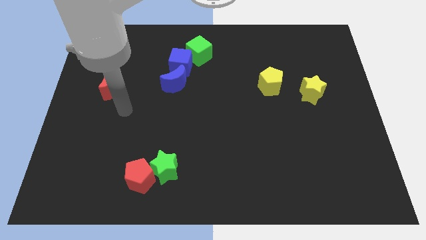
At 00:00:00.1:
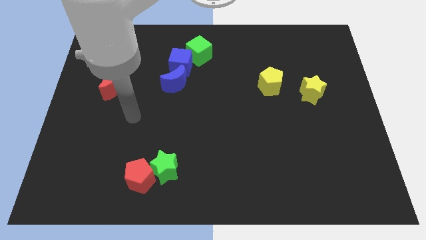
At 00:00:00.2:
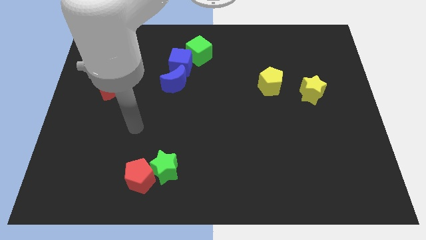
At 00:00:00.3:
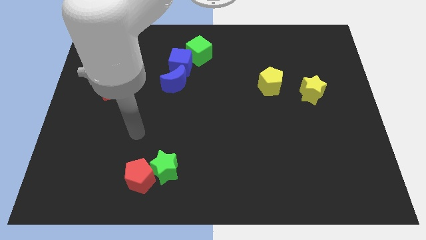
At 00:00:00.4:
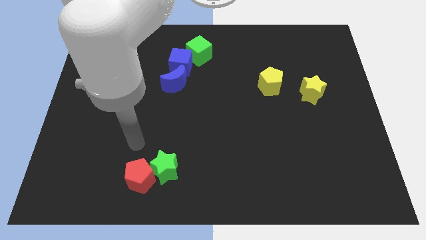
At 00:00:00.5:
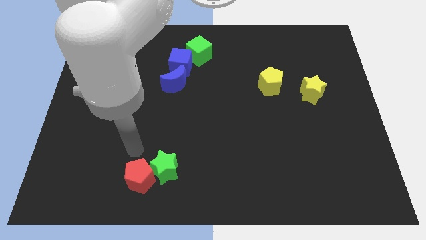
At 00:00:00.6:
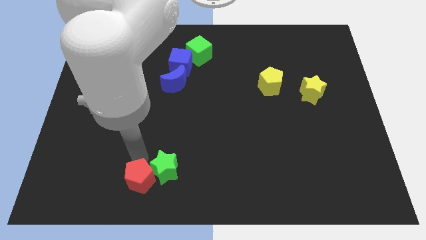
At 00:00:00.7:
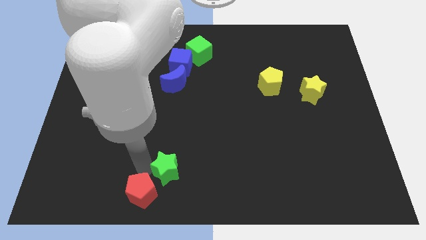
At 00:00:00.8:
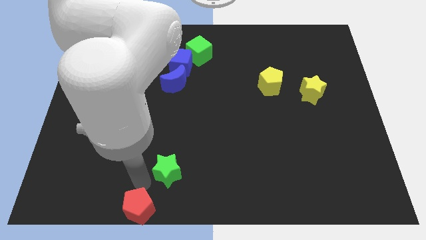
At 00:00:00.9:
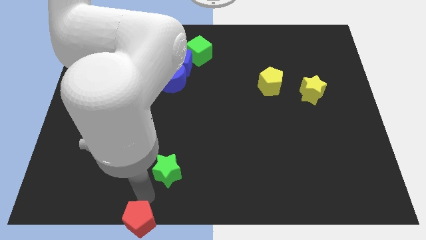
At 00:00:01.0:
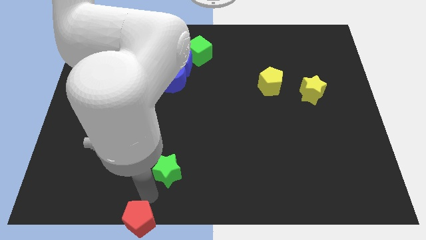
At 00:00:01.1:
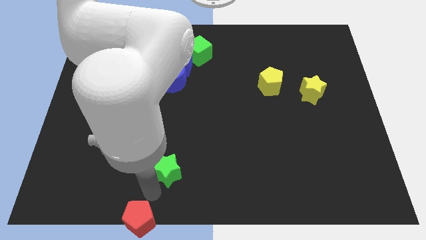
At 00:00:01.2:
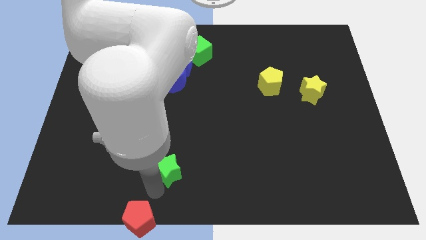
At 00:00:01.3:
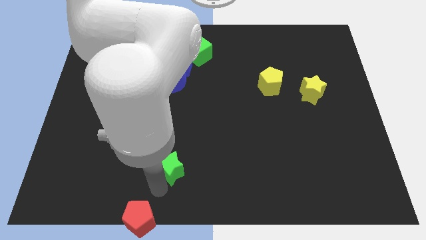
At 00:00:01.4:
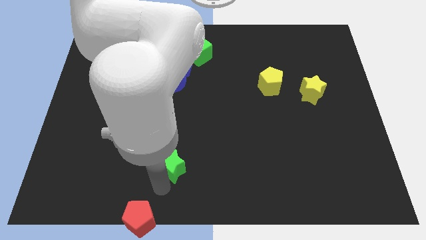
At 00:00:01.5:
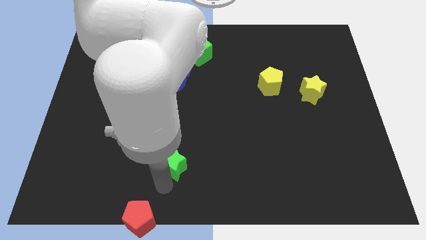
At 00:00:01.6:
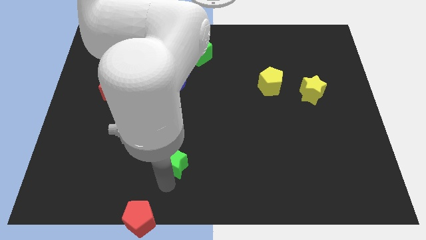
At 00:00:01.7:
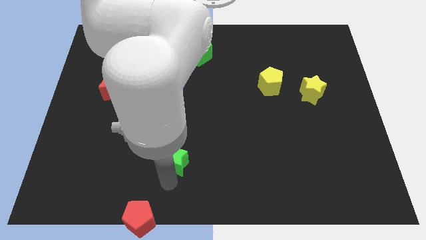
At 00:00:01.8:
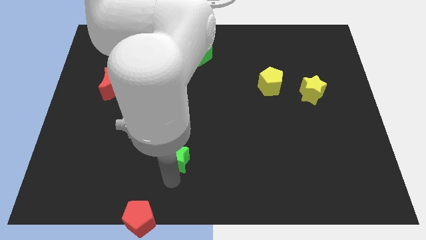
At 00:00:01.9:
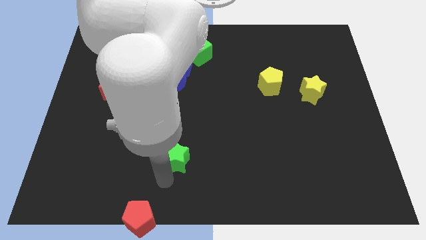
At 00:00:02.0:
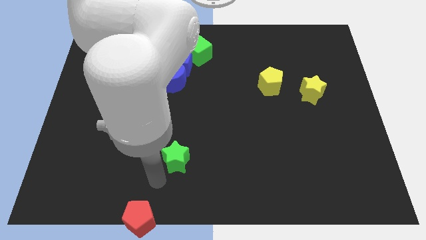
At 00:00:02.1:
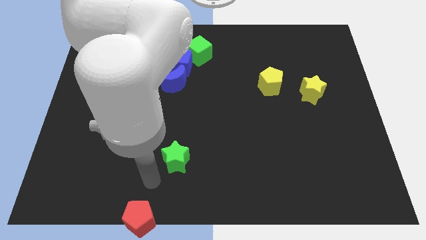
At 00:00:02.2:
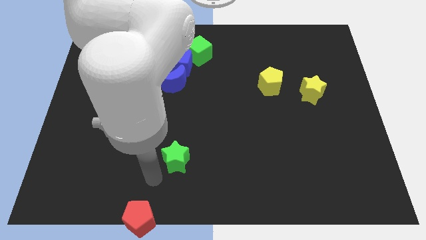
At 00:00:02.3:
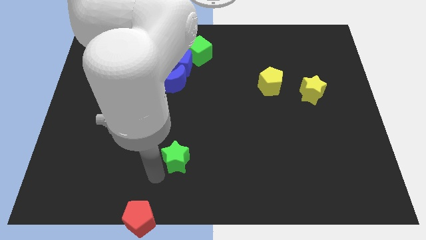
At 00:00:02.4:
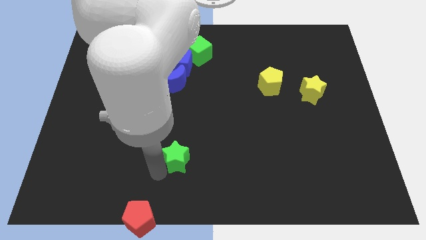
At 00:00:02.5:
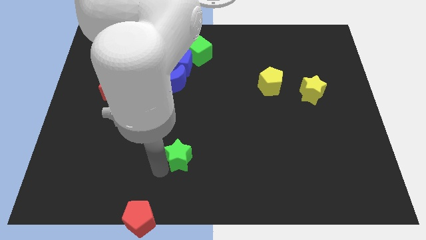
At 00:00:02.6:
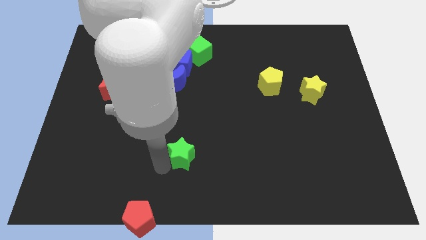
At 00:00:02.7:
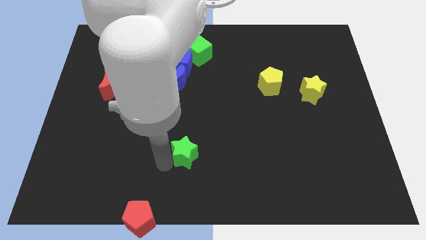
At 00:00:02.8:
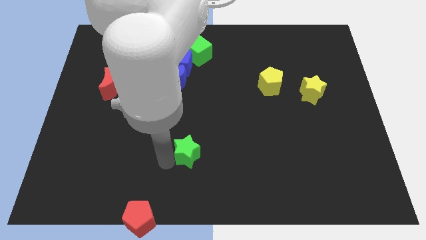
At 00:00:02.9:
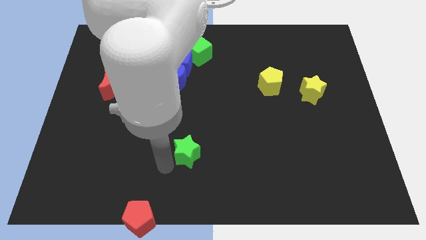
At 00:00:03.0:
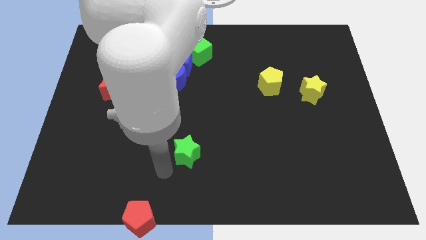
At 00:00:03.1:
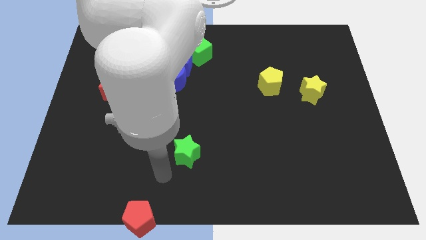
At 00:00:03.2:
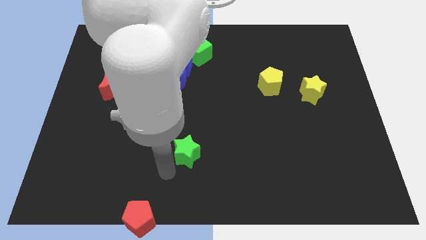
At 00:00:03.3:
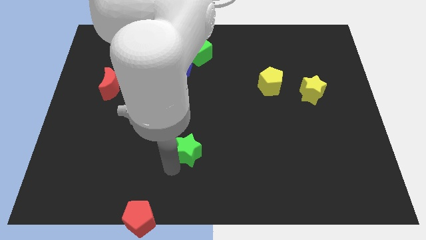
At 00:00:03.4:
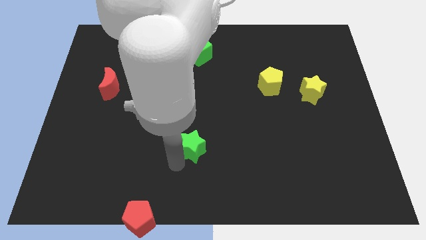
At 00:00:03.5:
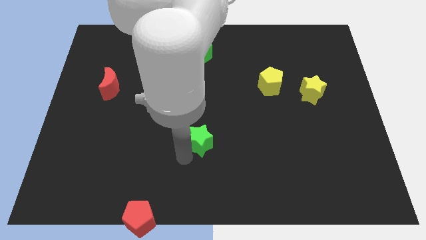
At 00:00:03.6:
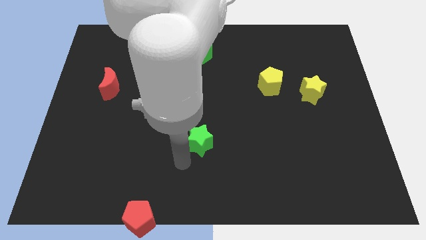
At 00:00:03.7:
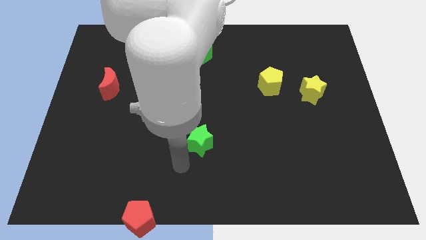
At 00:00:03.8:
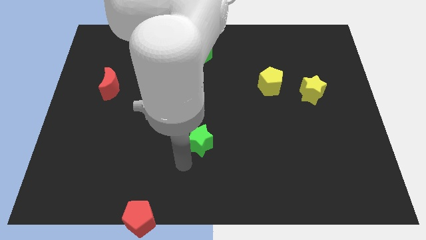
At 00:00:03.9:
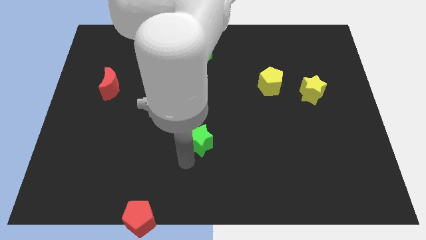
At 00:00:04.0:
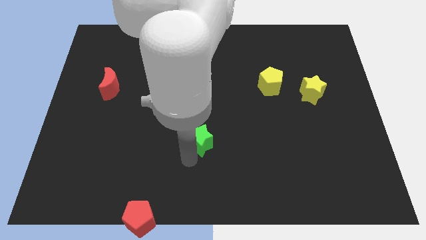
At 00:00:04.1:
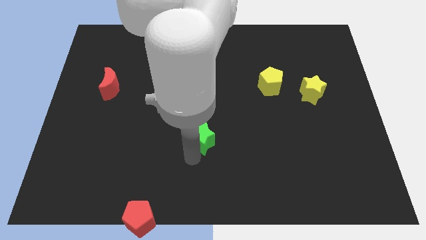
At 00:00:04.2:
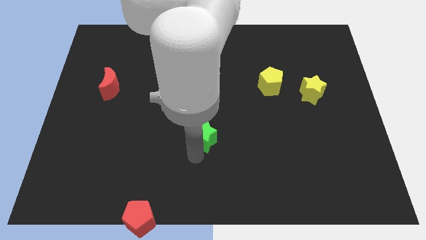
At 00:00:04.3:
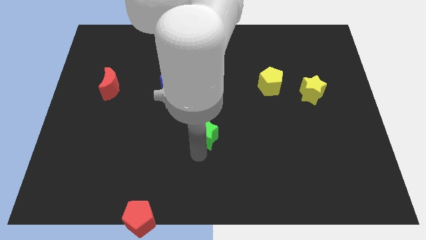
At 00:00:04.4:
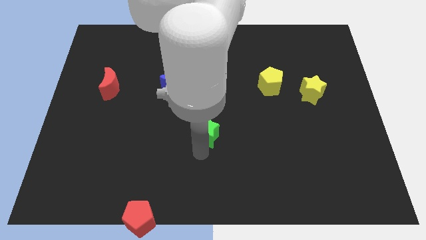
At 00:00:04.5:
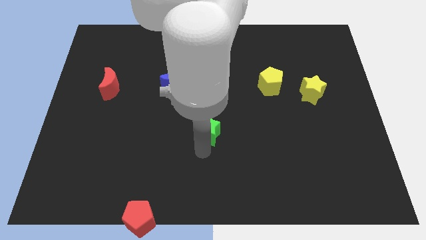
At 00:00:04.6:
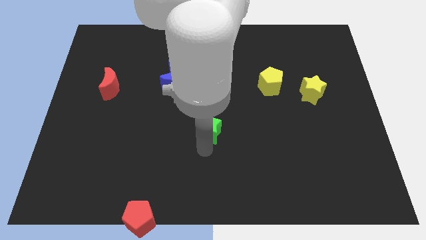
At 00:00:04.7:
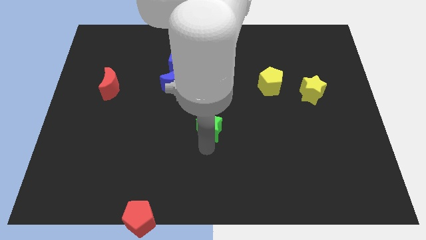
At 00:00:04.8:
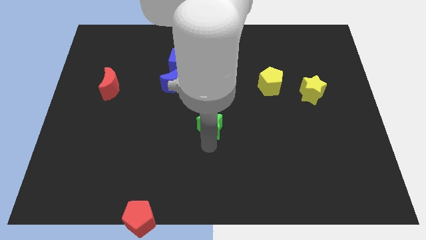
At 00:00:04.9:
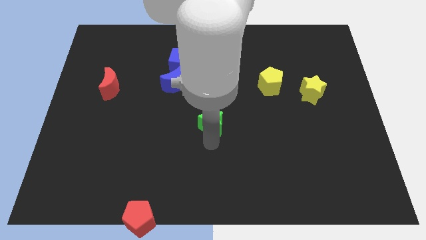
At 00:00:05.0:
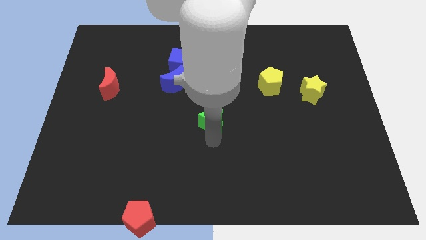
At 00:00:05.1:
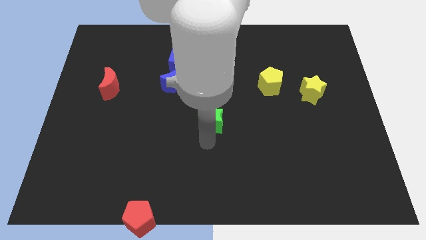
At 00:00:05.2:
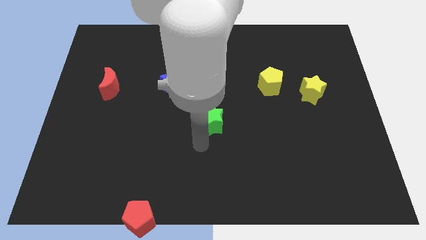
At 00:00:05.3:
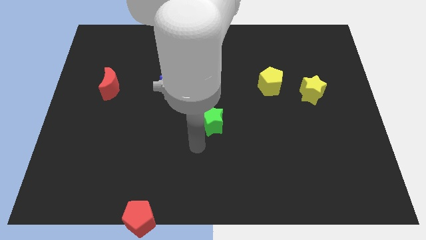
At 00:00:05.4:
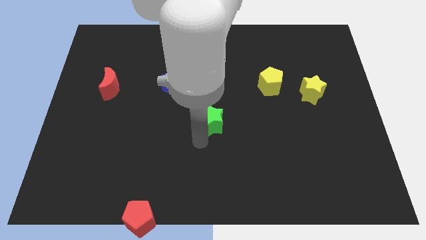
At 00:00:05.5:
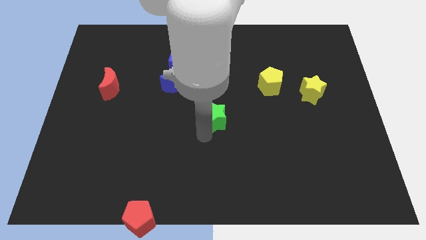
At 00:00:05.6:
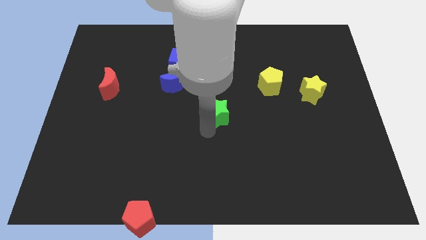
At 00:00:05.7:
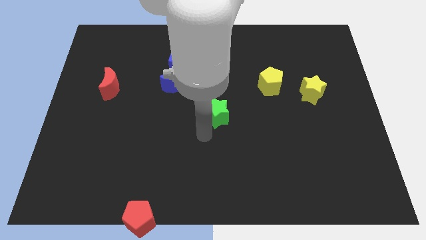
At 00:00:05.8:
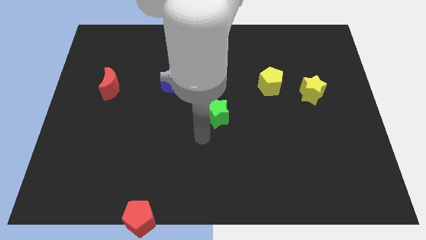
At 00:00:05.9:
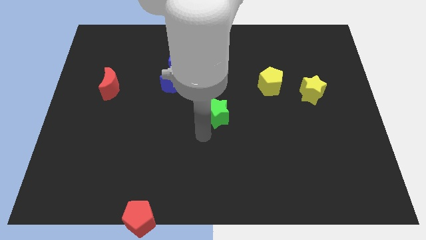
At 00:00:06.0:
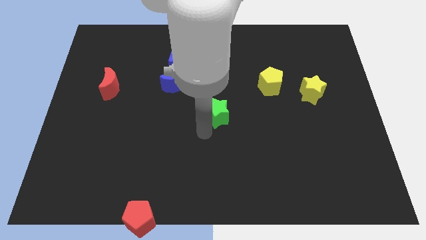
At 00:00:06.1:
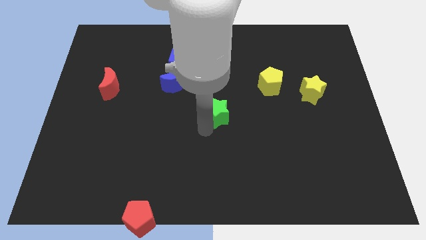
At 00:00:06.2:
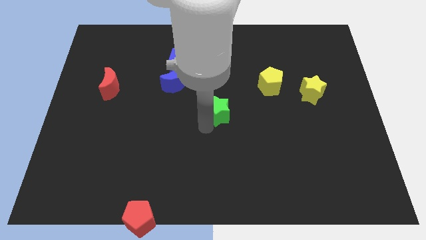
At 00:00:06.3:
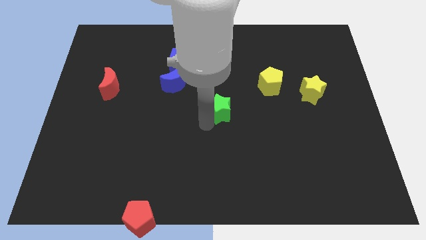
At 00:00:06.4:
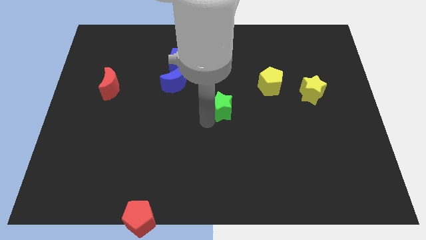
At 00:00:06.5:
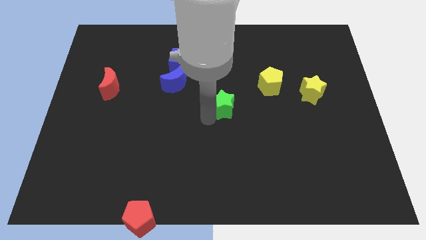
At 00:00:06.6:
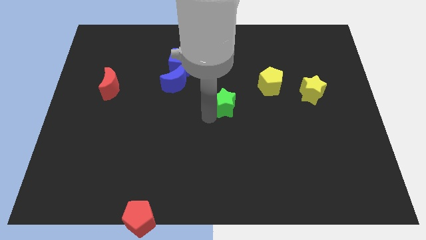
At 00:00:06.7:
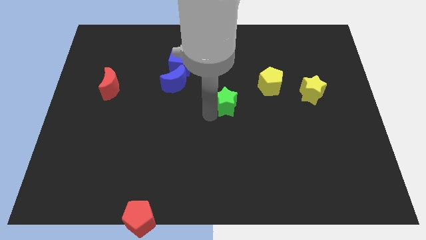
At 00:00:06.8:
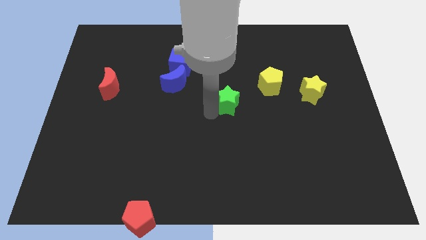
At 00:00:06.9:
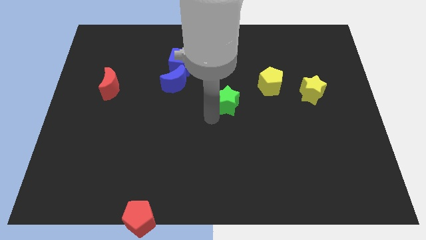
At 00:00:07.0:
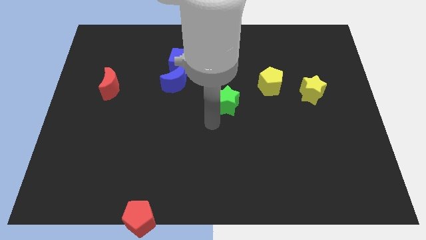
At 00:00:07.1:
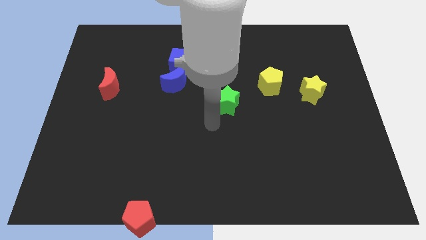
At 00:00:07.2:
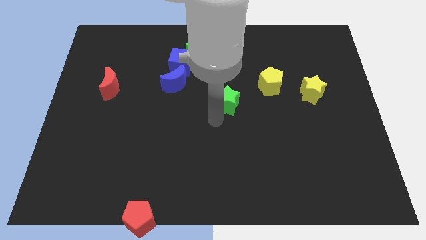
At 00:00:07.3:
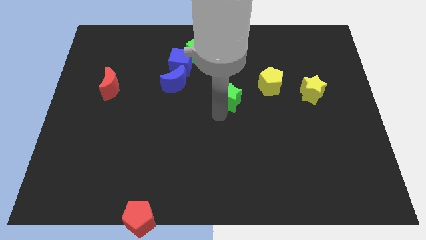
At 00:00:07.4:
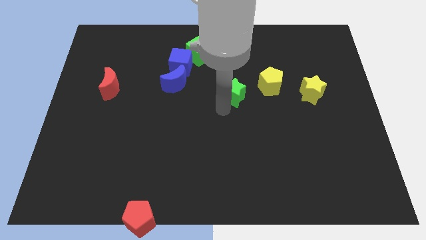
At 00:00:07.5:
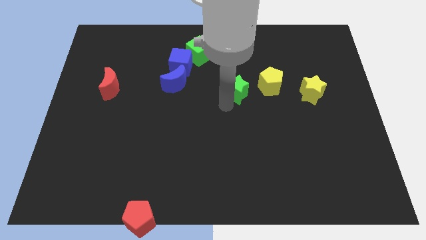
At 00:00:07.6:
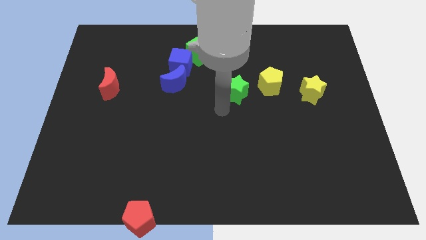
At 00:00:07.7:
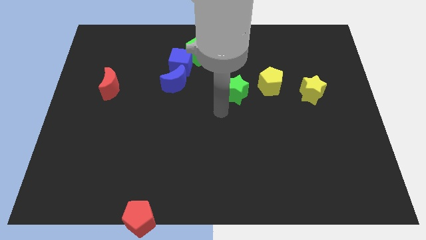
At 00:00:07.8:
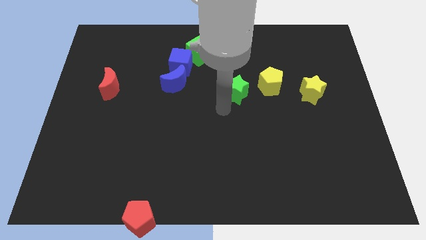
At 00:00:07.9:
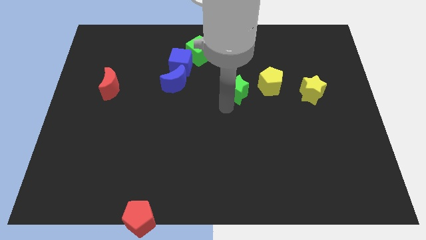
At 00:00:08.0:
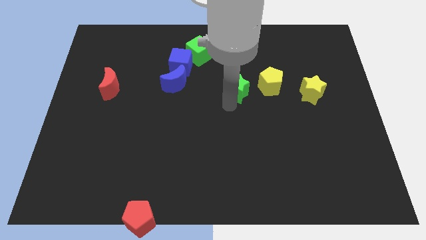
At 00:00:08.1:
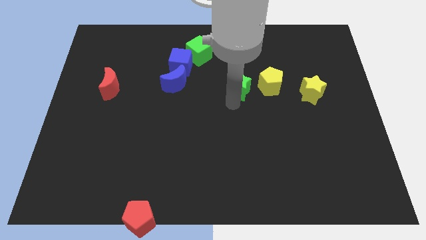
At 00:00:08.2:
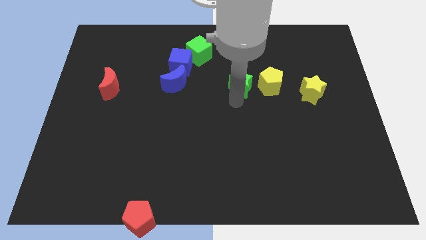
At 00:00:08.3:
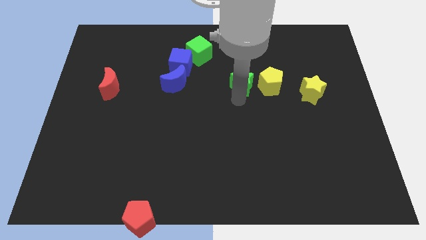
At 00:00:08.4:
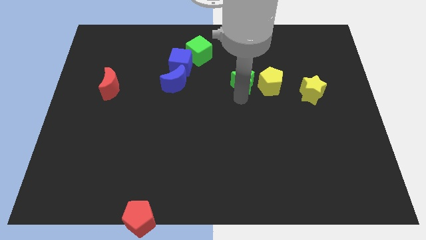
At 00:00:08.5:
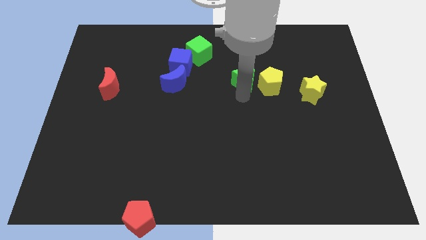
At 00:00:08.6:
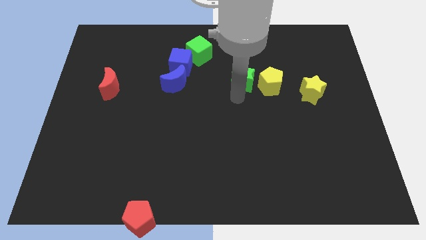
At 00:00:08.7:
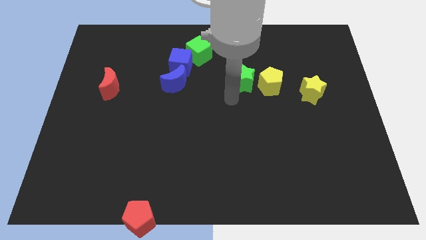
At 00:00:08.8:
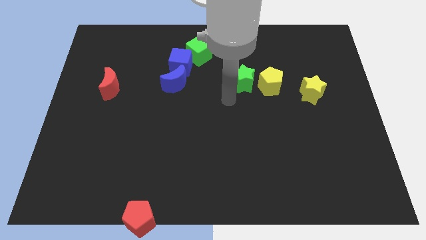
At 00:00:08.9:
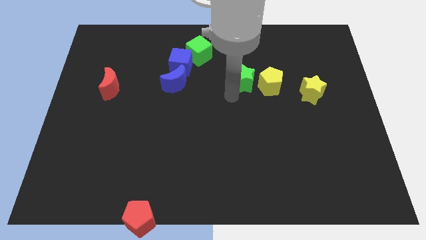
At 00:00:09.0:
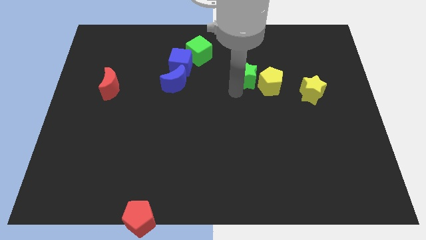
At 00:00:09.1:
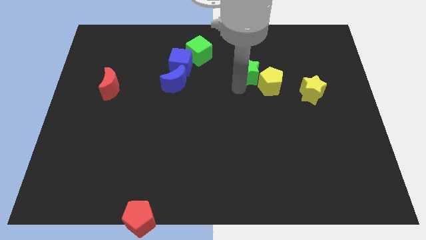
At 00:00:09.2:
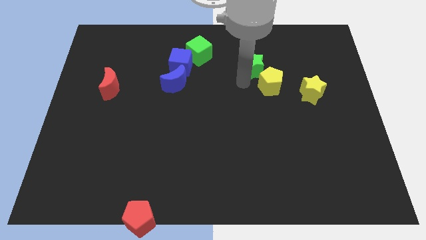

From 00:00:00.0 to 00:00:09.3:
move the green star to the top side of the yellow pentagon
